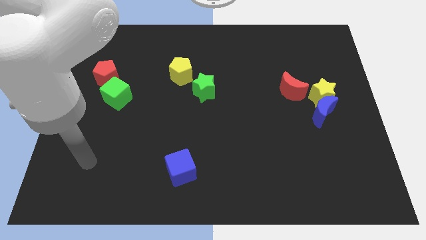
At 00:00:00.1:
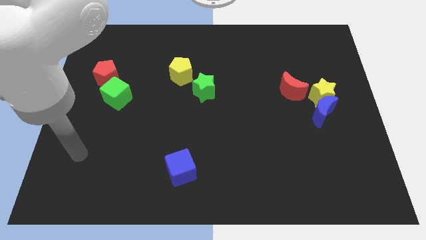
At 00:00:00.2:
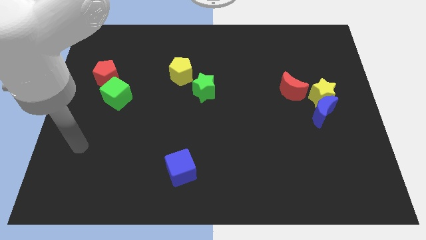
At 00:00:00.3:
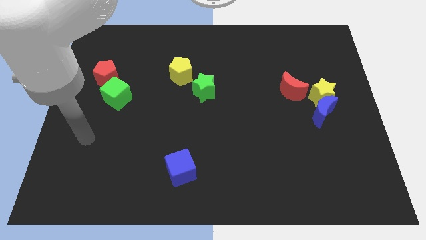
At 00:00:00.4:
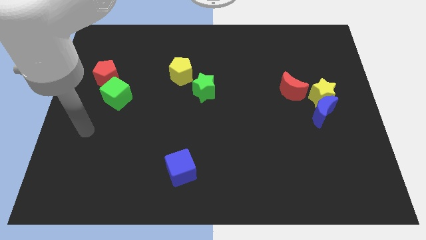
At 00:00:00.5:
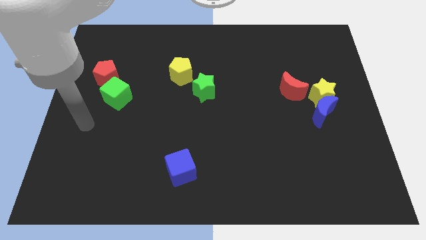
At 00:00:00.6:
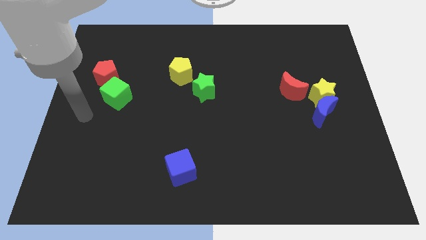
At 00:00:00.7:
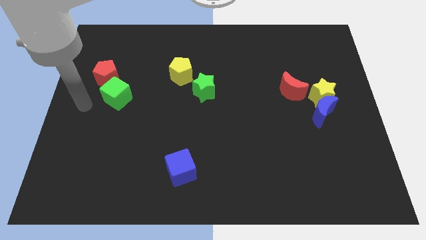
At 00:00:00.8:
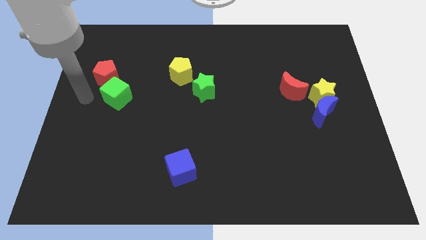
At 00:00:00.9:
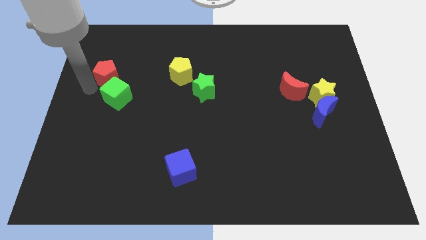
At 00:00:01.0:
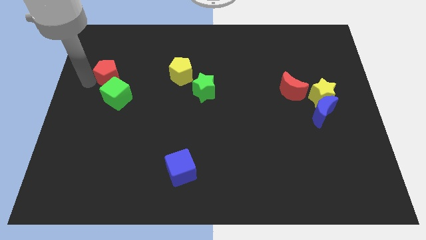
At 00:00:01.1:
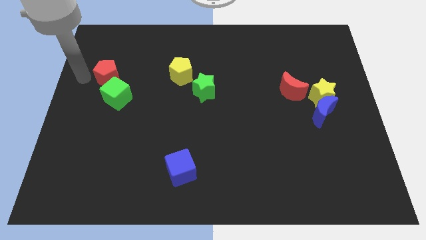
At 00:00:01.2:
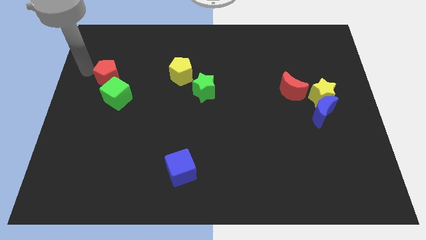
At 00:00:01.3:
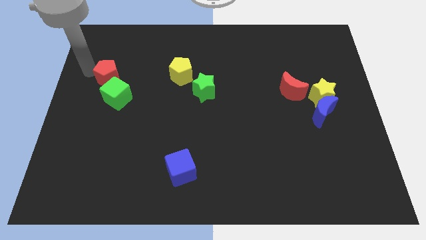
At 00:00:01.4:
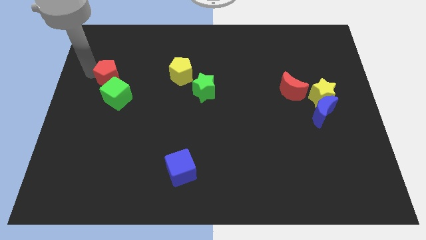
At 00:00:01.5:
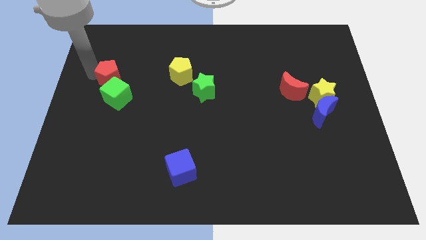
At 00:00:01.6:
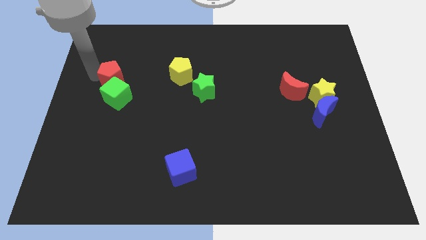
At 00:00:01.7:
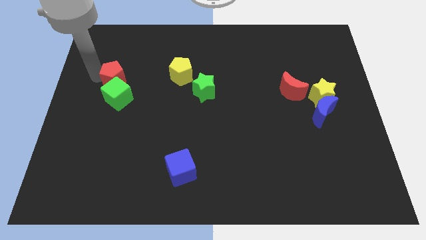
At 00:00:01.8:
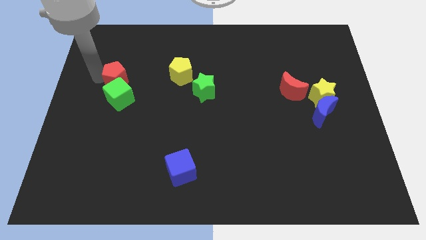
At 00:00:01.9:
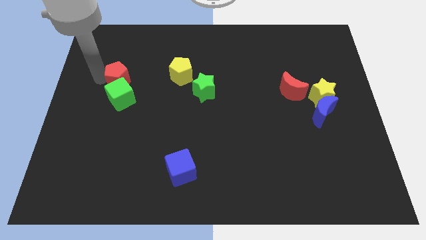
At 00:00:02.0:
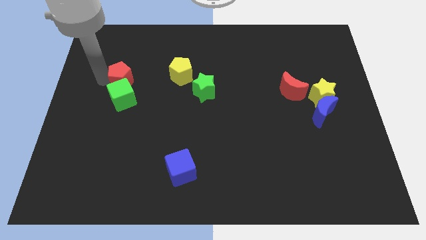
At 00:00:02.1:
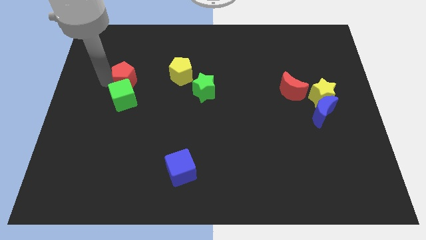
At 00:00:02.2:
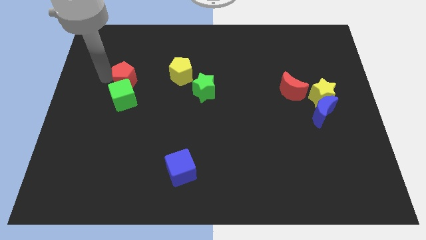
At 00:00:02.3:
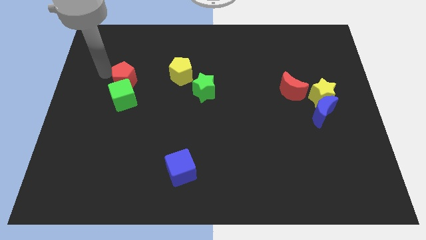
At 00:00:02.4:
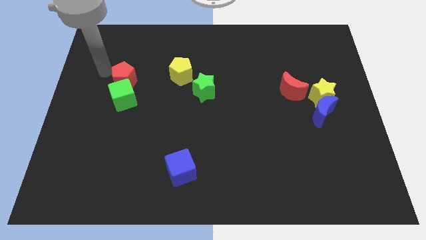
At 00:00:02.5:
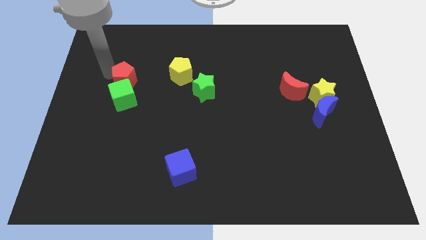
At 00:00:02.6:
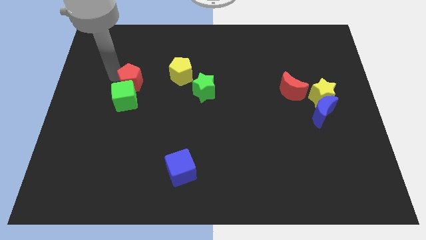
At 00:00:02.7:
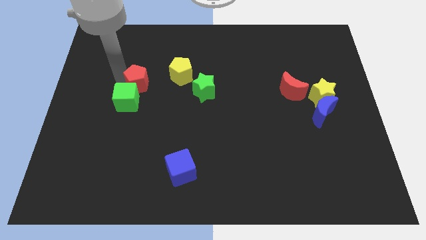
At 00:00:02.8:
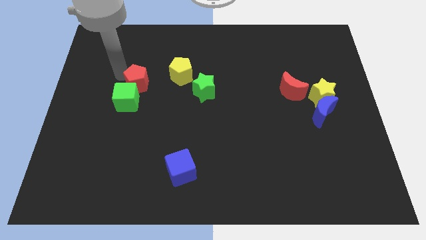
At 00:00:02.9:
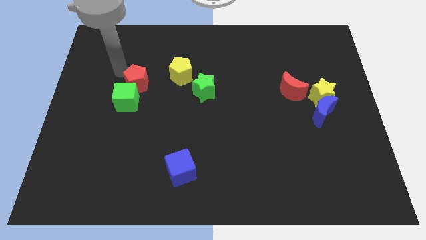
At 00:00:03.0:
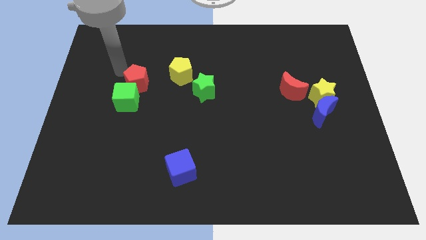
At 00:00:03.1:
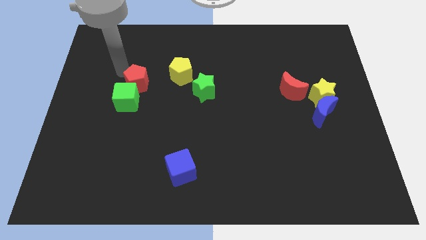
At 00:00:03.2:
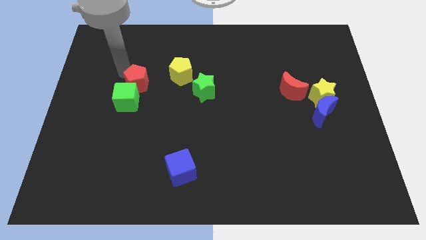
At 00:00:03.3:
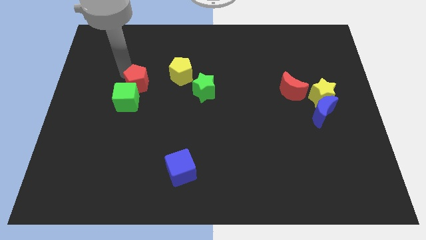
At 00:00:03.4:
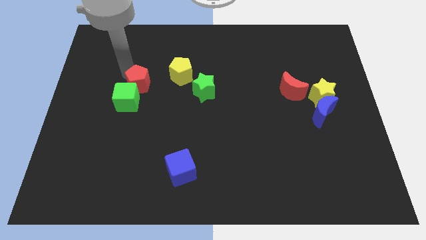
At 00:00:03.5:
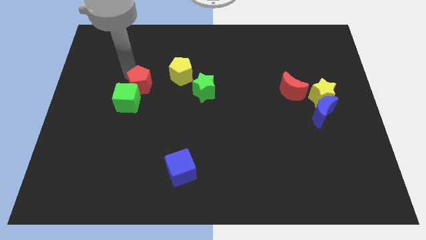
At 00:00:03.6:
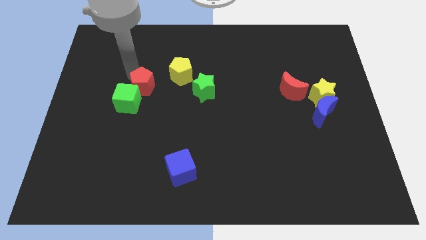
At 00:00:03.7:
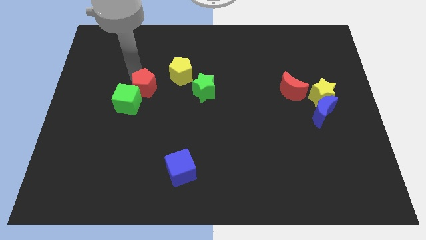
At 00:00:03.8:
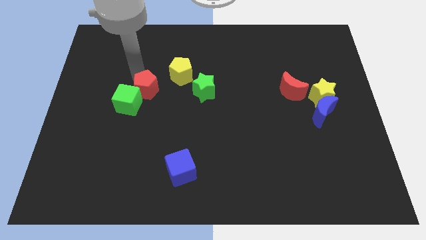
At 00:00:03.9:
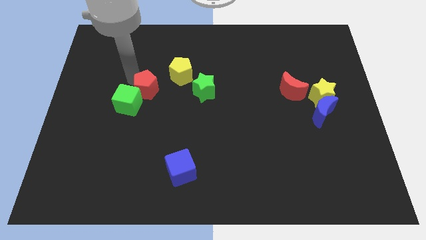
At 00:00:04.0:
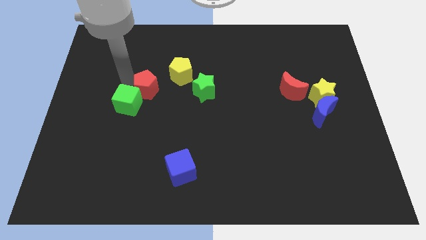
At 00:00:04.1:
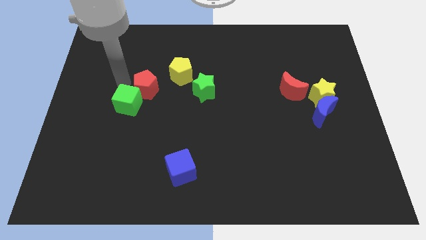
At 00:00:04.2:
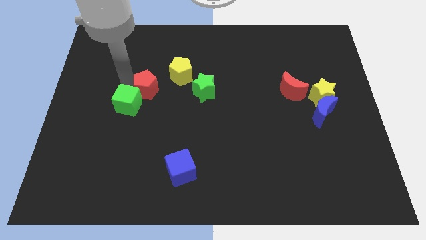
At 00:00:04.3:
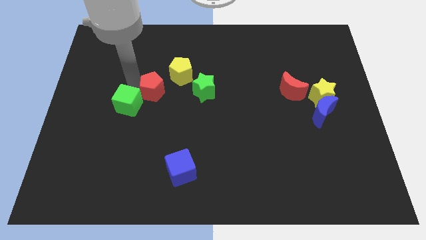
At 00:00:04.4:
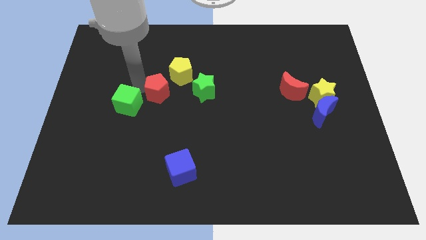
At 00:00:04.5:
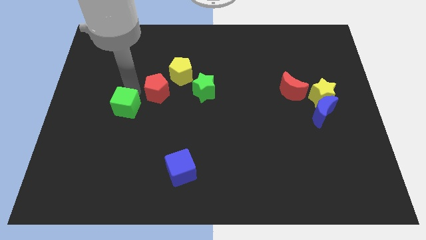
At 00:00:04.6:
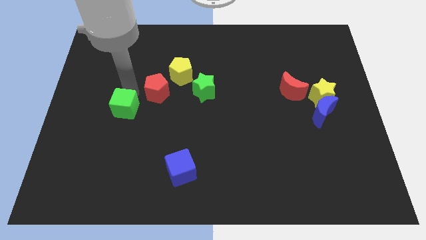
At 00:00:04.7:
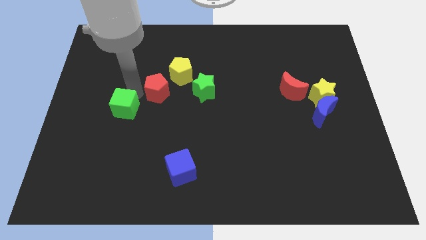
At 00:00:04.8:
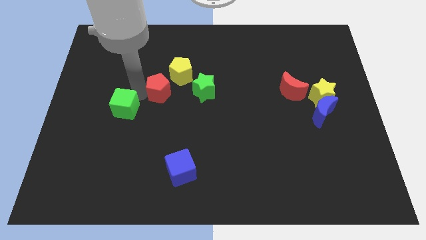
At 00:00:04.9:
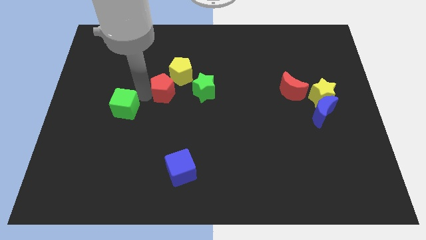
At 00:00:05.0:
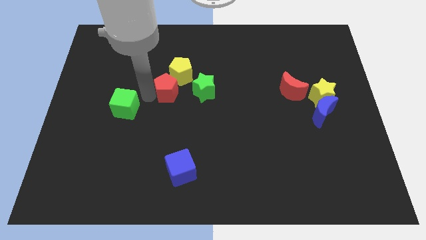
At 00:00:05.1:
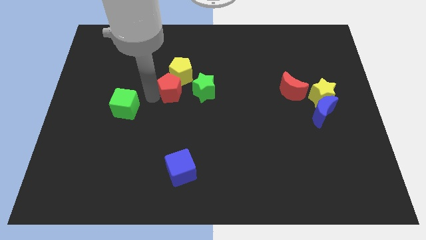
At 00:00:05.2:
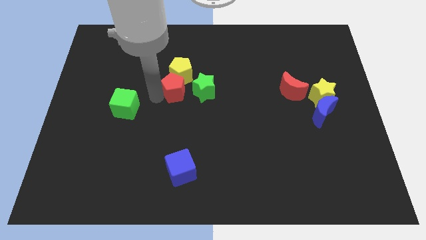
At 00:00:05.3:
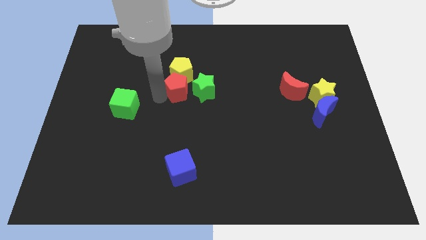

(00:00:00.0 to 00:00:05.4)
slide the red pentagon close to the green star

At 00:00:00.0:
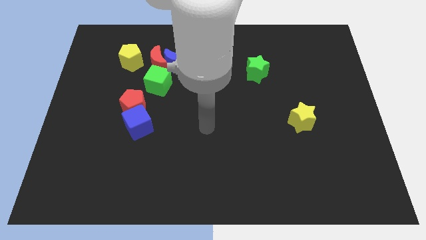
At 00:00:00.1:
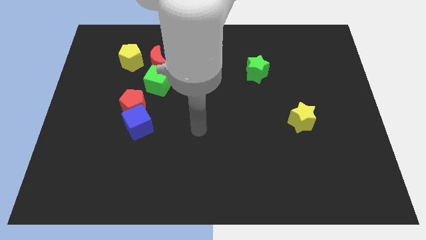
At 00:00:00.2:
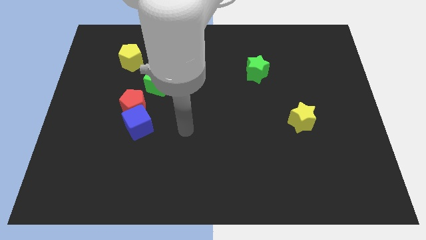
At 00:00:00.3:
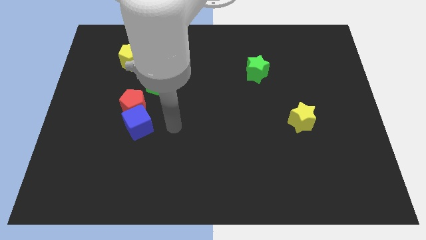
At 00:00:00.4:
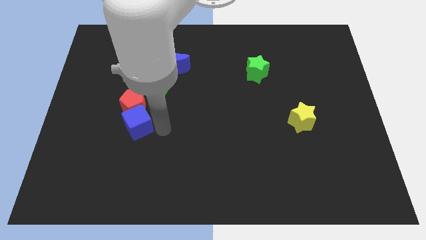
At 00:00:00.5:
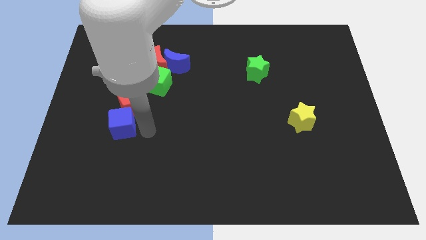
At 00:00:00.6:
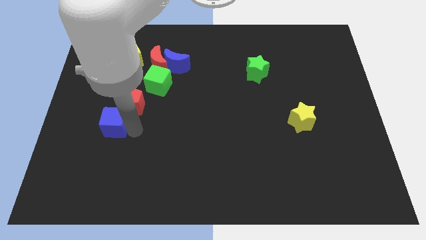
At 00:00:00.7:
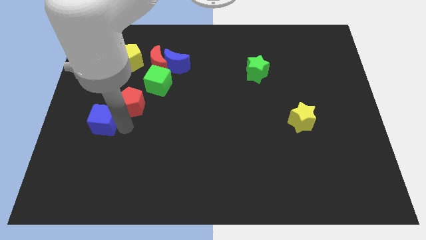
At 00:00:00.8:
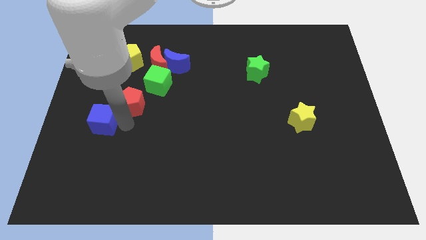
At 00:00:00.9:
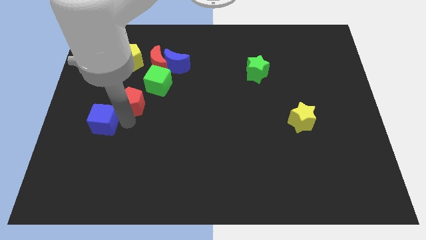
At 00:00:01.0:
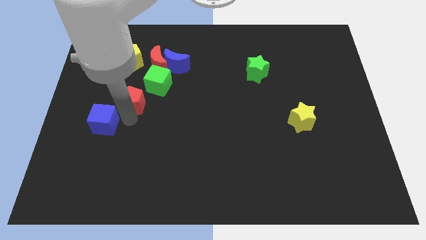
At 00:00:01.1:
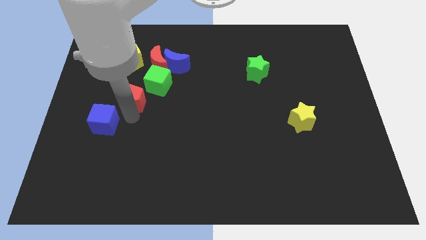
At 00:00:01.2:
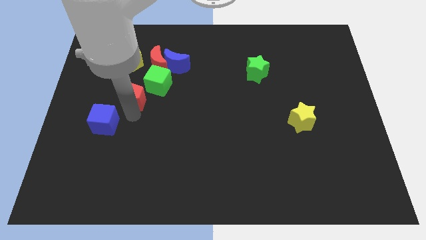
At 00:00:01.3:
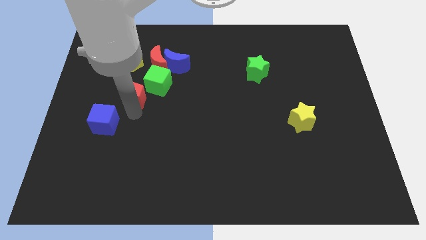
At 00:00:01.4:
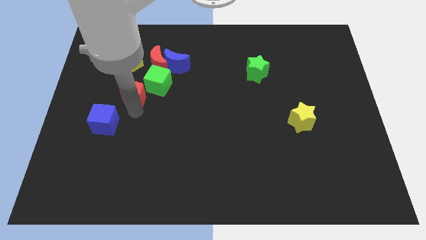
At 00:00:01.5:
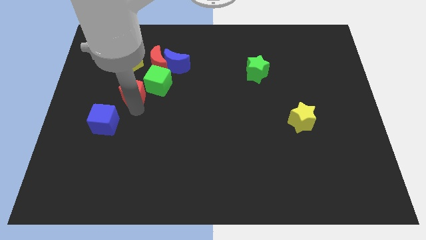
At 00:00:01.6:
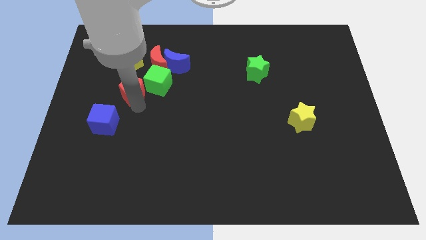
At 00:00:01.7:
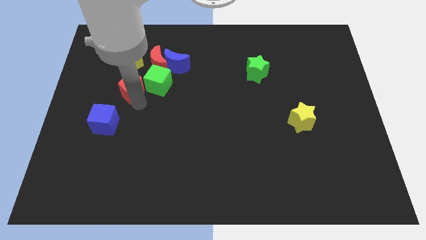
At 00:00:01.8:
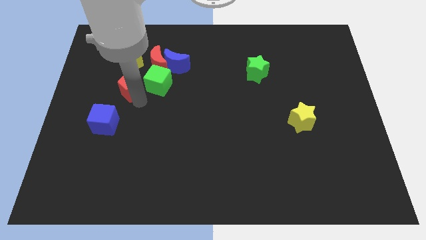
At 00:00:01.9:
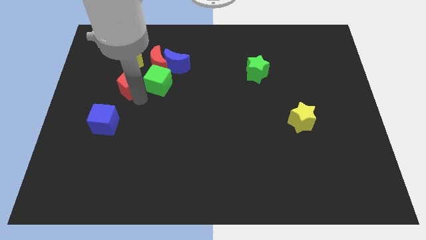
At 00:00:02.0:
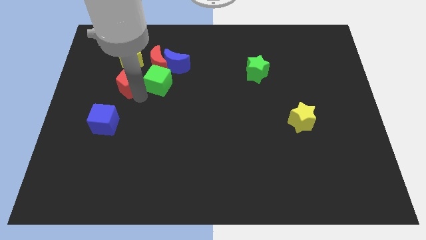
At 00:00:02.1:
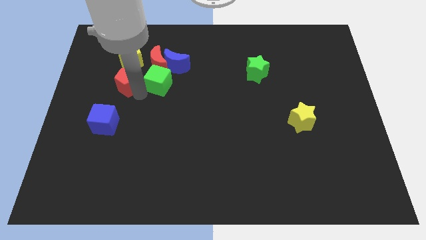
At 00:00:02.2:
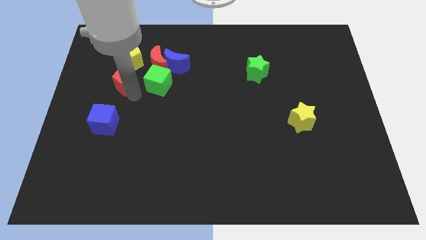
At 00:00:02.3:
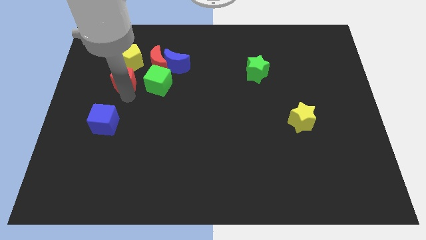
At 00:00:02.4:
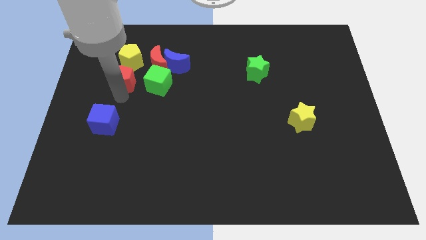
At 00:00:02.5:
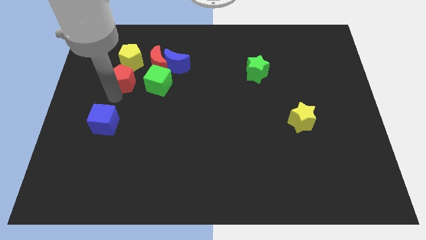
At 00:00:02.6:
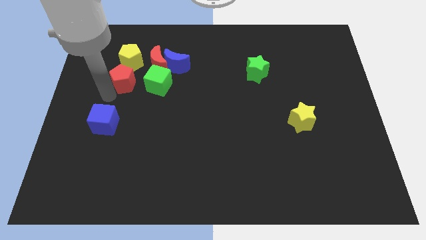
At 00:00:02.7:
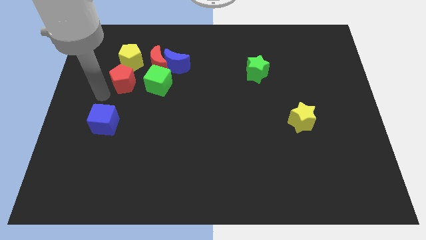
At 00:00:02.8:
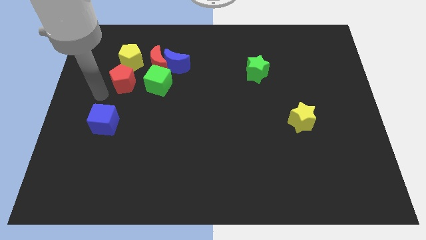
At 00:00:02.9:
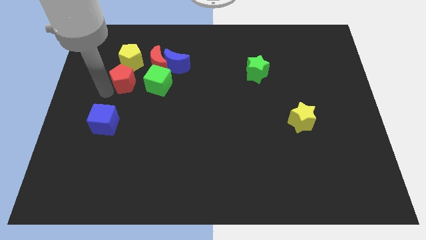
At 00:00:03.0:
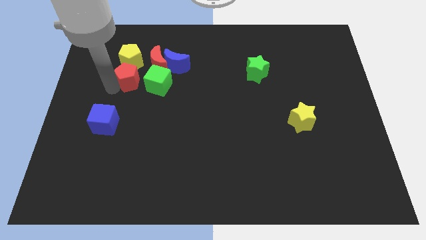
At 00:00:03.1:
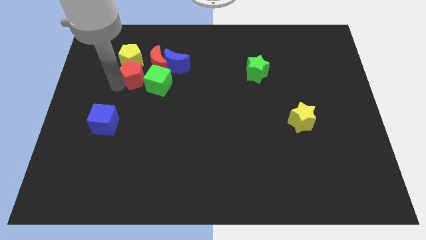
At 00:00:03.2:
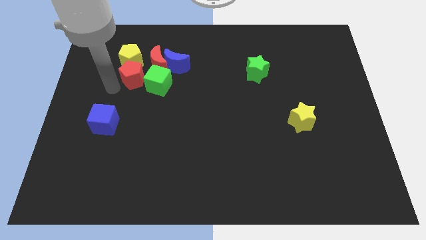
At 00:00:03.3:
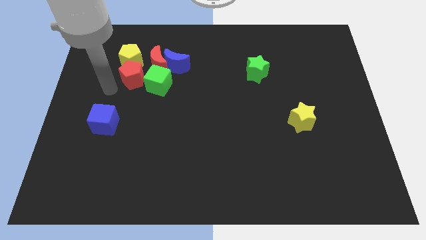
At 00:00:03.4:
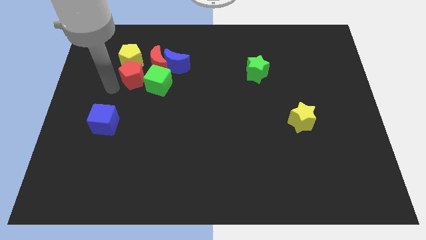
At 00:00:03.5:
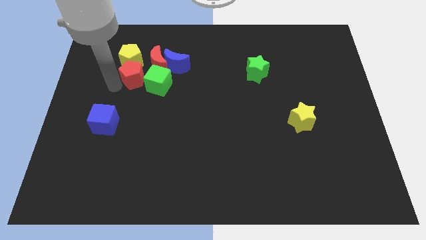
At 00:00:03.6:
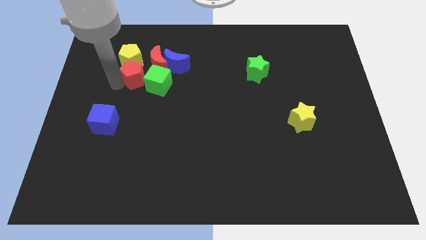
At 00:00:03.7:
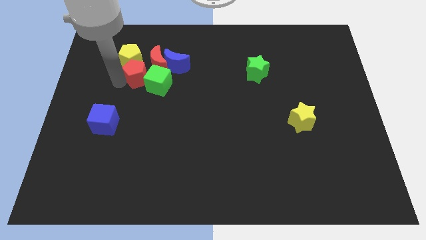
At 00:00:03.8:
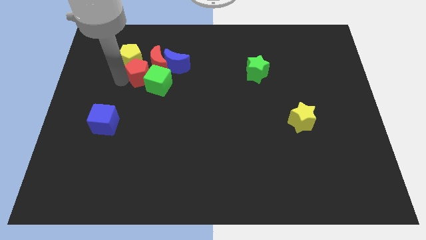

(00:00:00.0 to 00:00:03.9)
move the red pentagon close to the red moon
